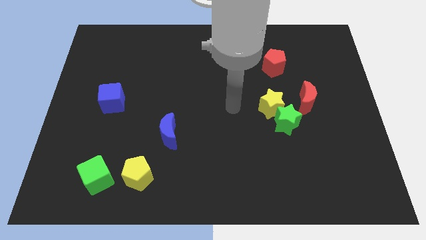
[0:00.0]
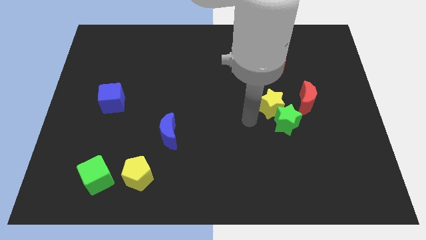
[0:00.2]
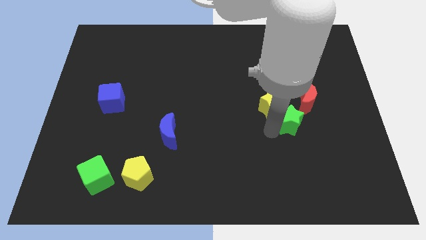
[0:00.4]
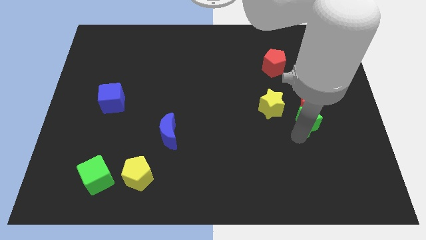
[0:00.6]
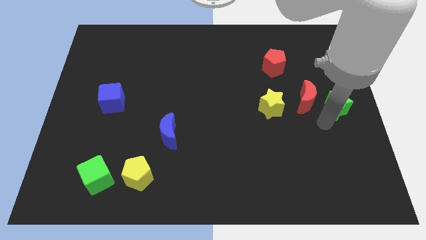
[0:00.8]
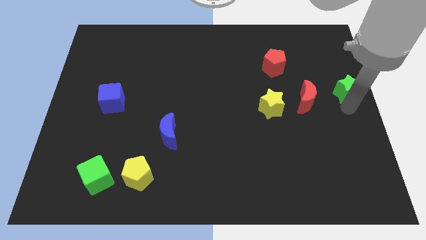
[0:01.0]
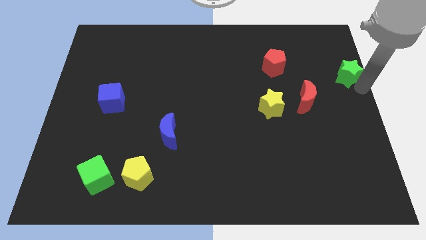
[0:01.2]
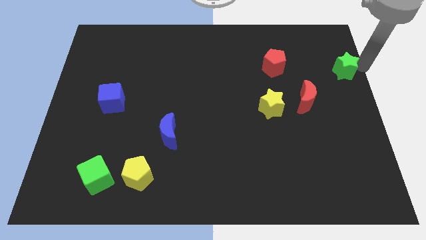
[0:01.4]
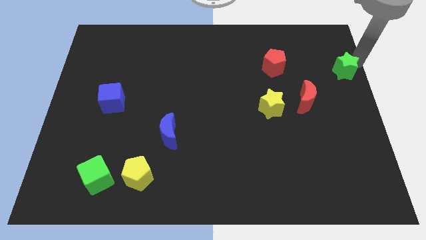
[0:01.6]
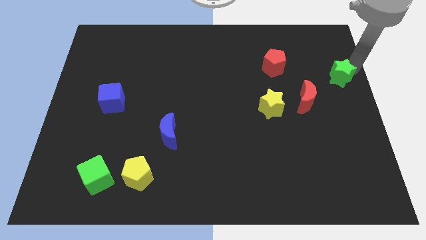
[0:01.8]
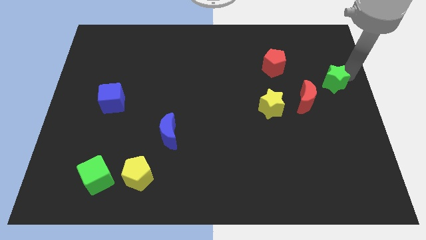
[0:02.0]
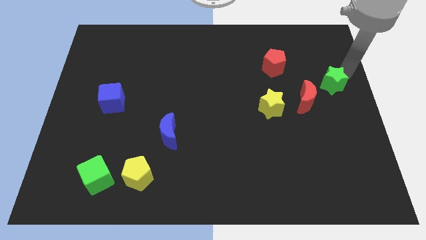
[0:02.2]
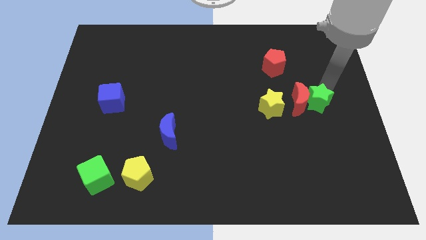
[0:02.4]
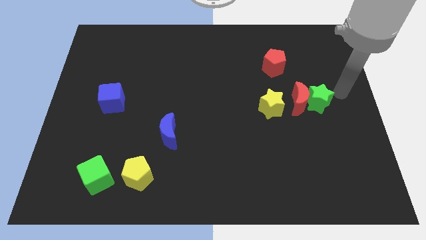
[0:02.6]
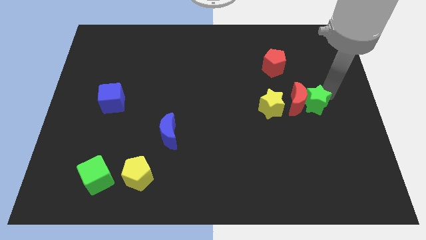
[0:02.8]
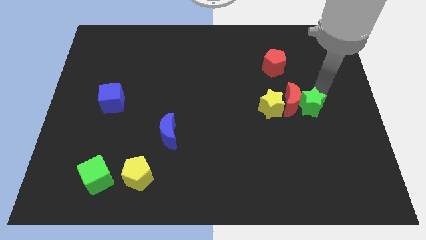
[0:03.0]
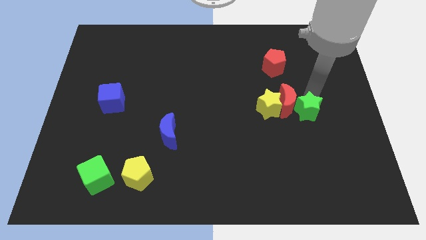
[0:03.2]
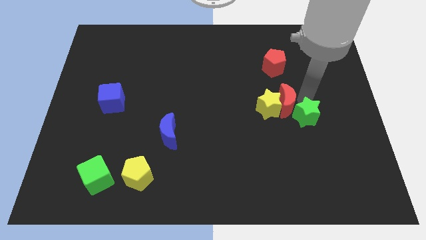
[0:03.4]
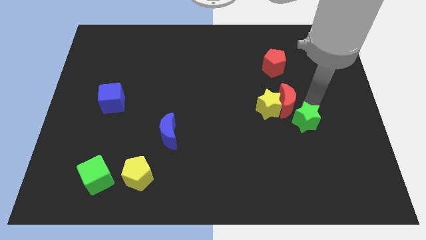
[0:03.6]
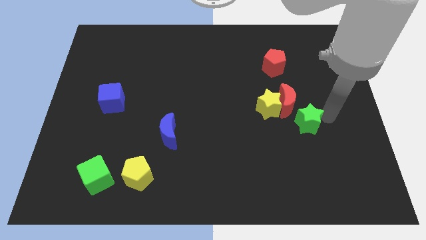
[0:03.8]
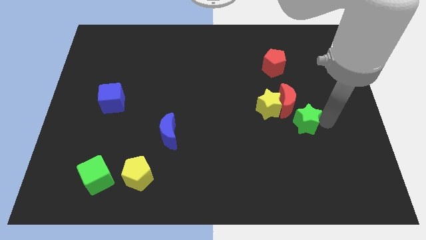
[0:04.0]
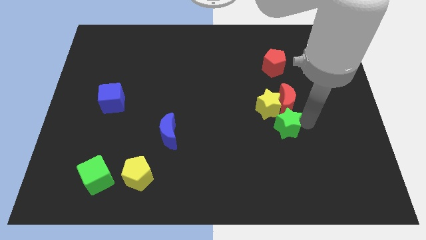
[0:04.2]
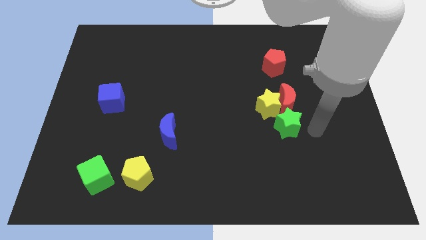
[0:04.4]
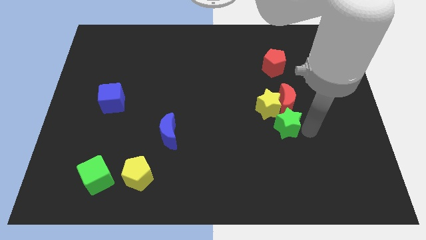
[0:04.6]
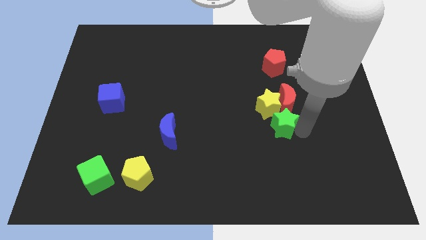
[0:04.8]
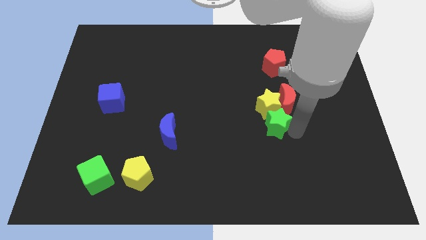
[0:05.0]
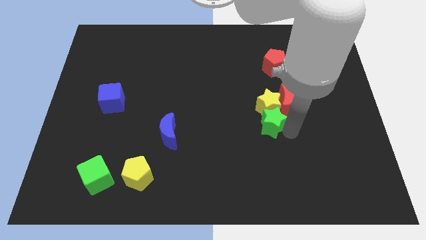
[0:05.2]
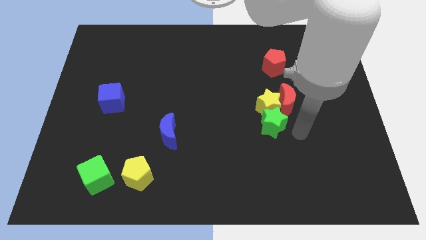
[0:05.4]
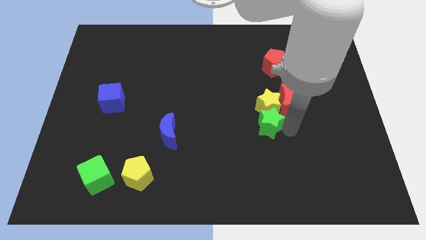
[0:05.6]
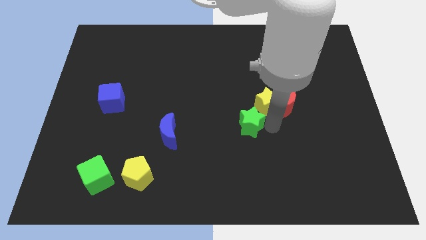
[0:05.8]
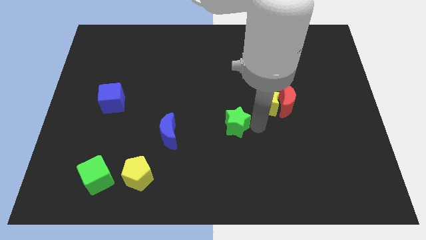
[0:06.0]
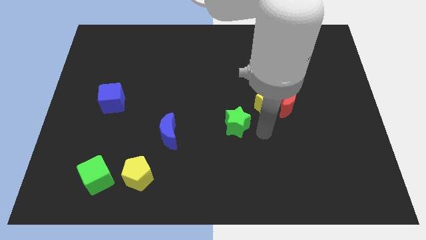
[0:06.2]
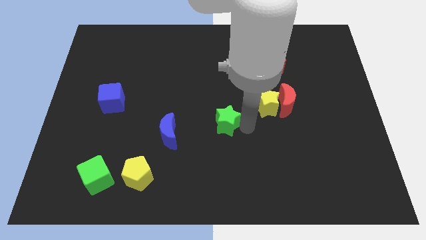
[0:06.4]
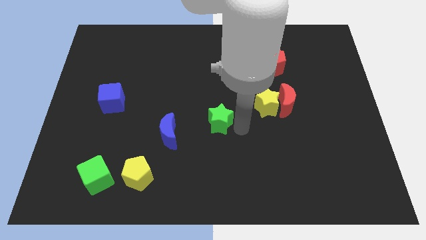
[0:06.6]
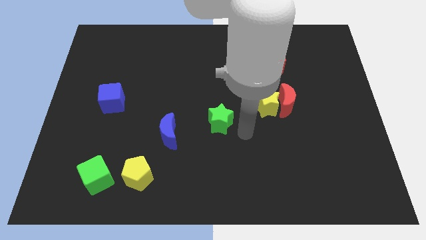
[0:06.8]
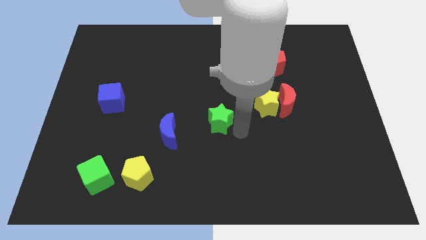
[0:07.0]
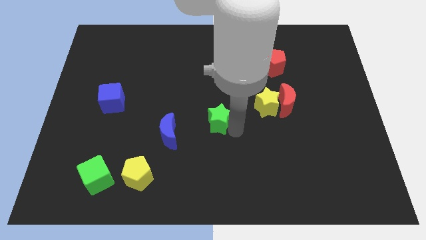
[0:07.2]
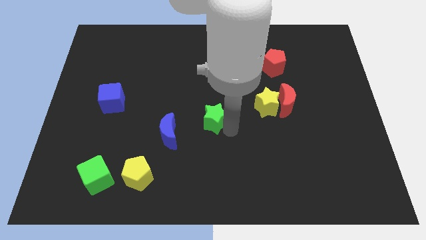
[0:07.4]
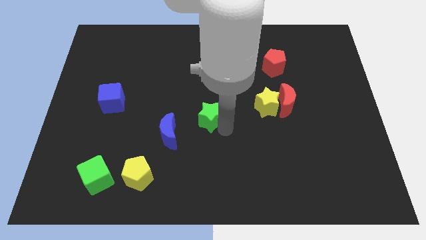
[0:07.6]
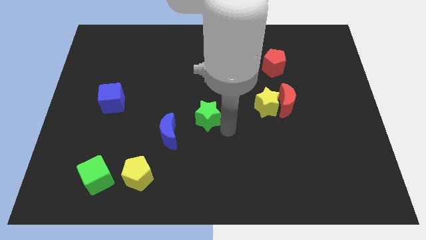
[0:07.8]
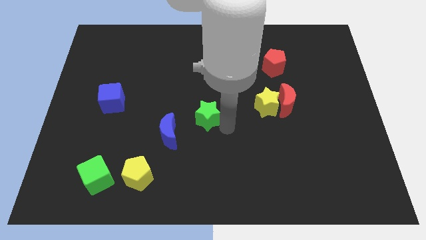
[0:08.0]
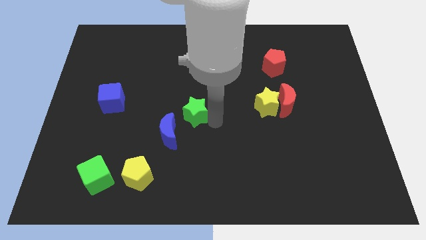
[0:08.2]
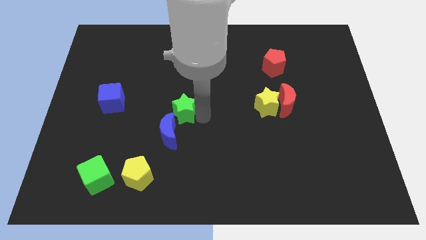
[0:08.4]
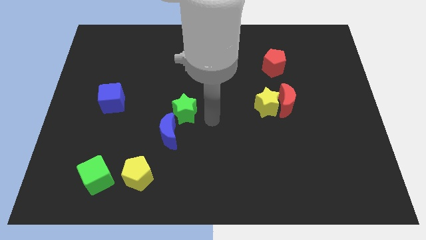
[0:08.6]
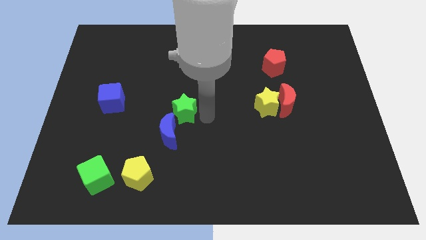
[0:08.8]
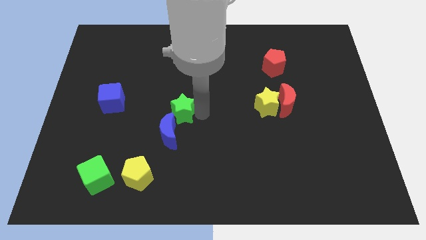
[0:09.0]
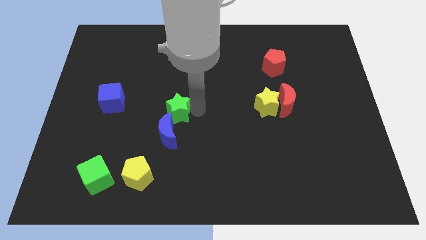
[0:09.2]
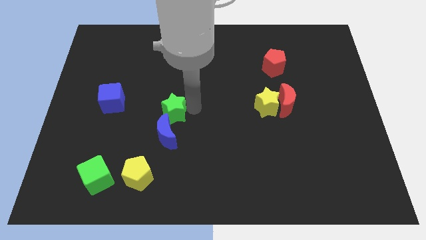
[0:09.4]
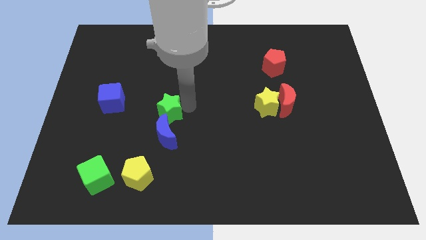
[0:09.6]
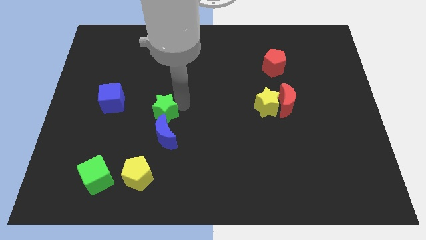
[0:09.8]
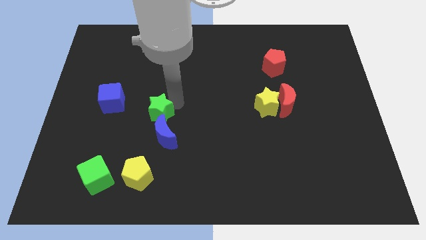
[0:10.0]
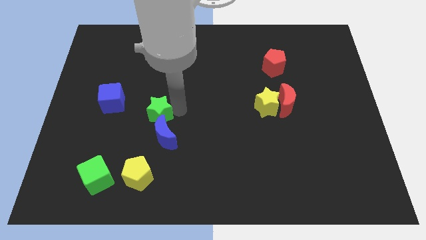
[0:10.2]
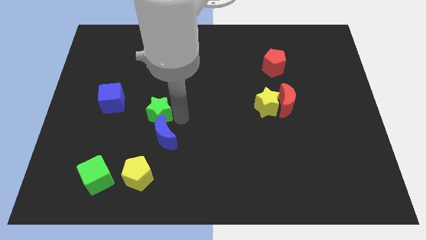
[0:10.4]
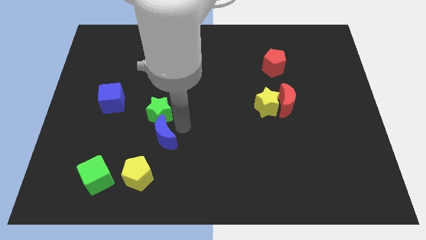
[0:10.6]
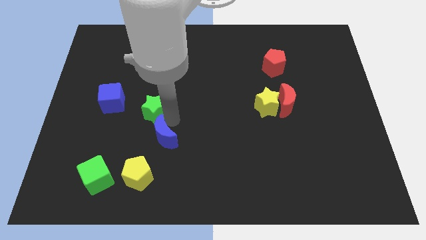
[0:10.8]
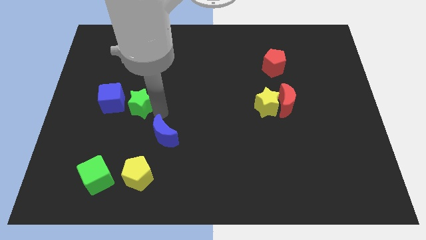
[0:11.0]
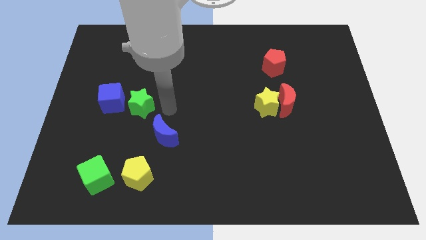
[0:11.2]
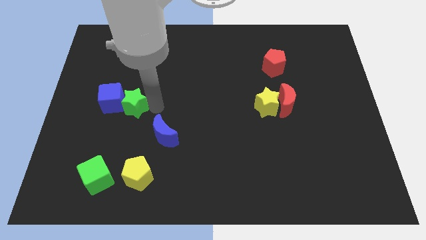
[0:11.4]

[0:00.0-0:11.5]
put the green star towards the blue cube

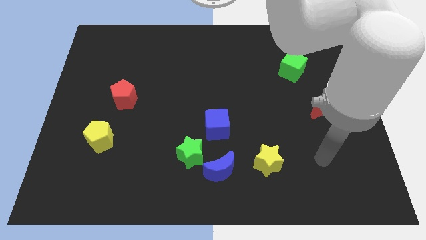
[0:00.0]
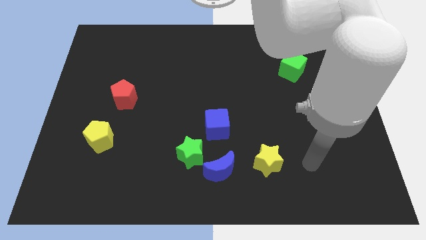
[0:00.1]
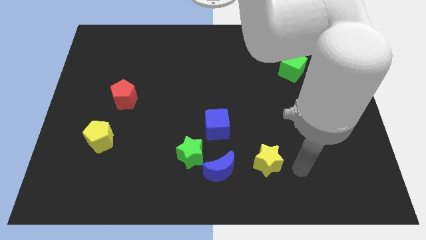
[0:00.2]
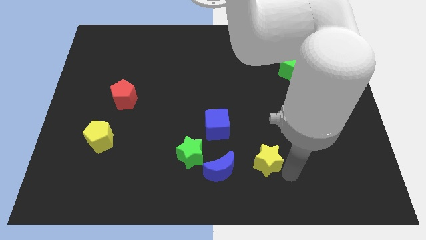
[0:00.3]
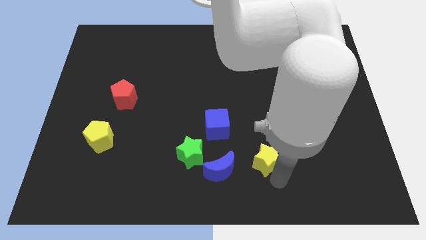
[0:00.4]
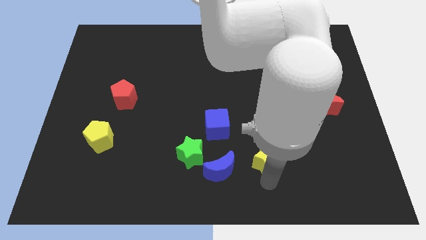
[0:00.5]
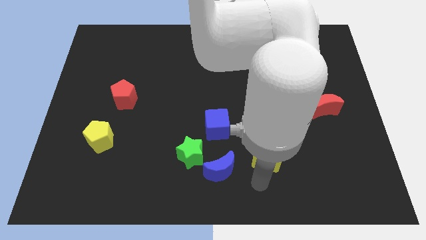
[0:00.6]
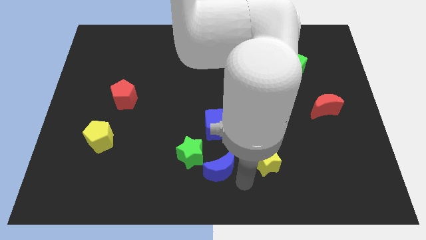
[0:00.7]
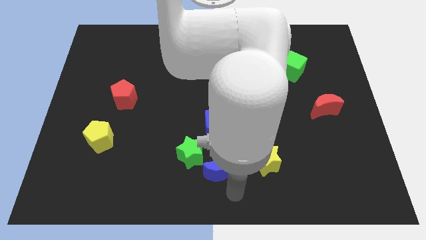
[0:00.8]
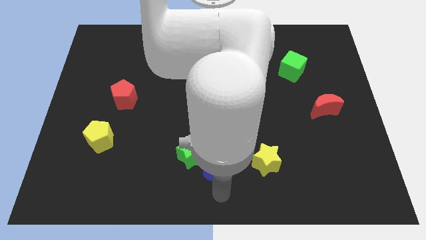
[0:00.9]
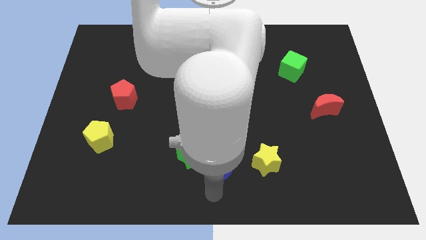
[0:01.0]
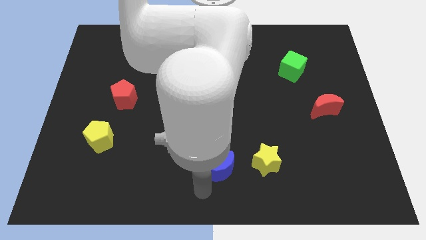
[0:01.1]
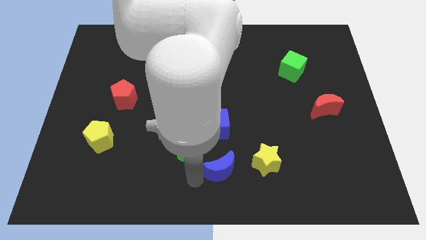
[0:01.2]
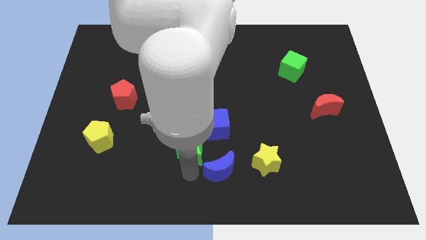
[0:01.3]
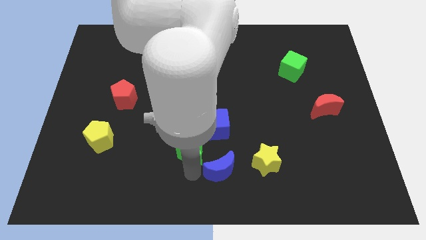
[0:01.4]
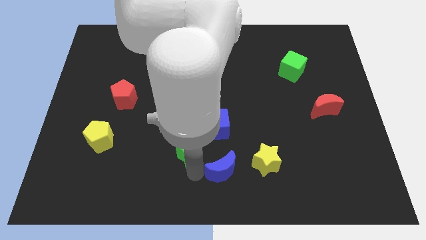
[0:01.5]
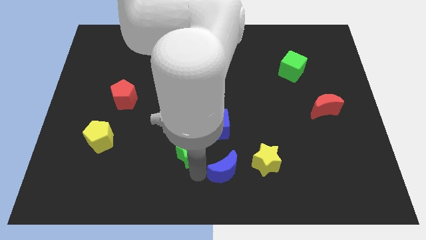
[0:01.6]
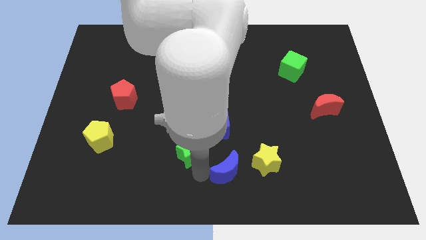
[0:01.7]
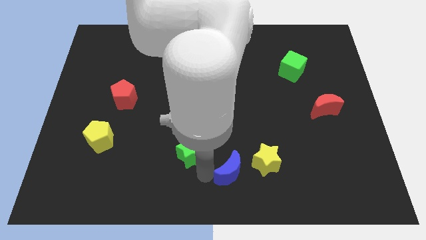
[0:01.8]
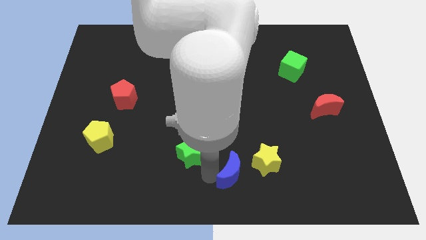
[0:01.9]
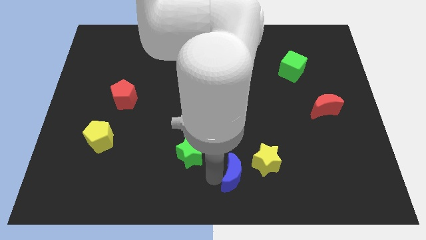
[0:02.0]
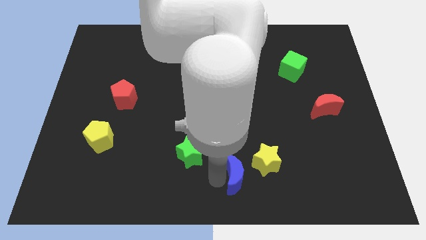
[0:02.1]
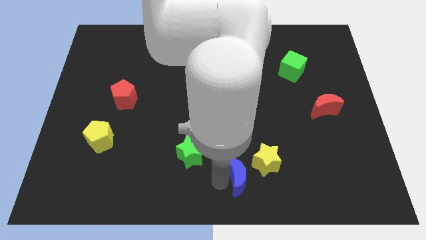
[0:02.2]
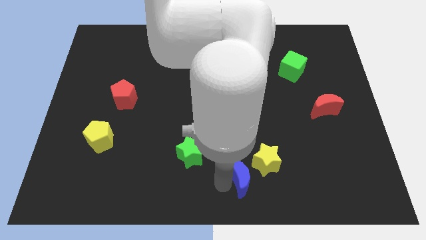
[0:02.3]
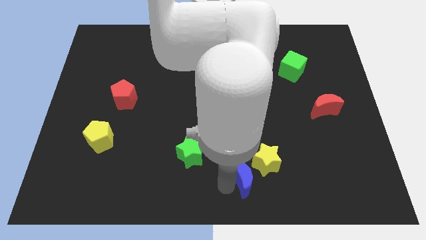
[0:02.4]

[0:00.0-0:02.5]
put the blue moon next to the yellow star
